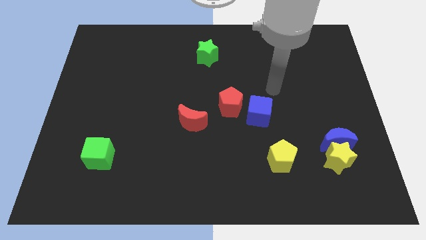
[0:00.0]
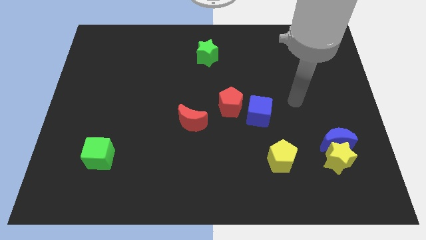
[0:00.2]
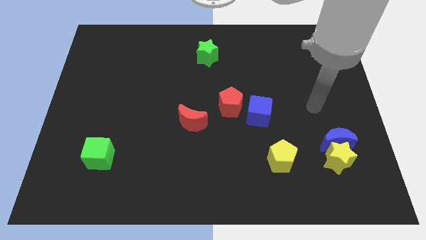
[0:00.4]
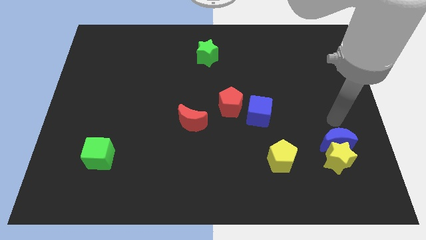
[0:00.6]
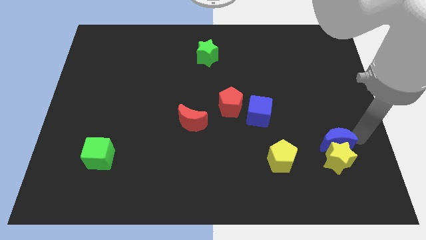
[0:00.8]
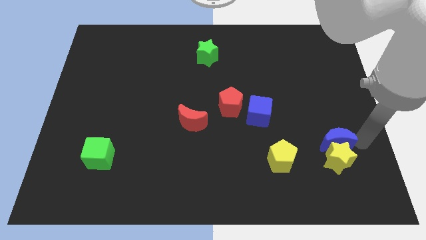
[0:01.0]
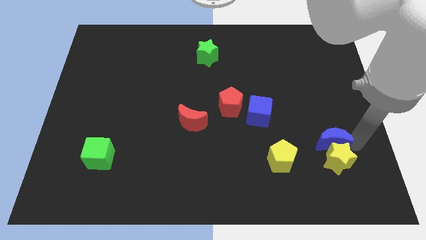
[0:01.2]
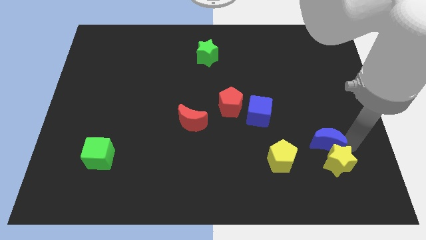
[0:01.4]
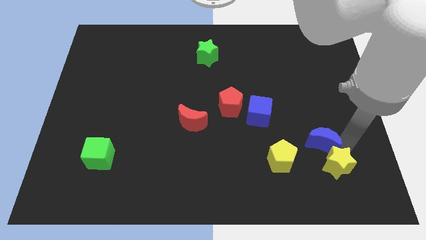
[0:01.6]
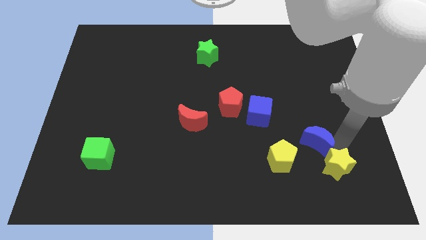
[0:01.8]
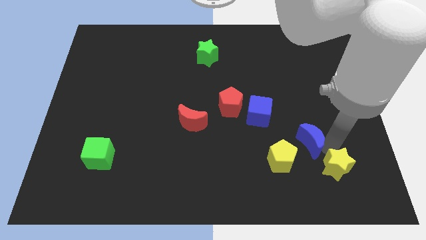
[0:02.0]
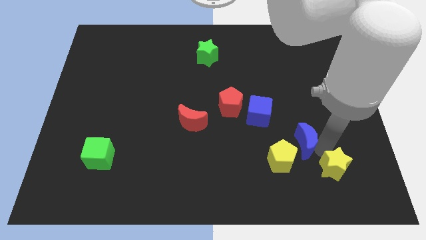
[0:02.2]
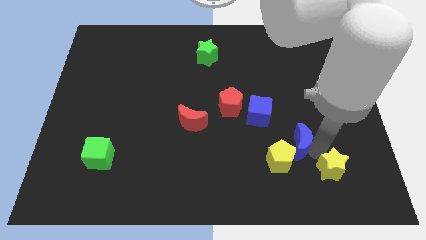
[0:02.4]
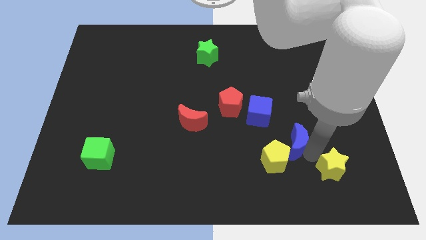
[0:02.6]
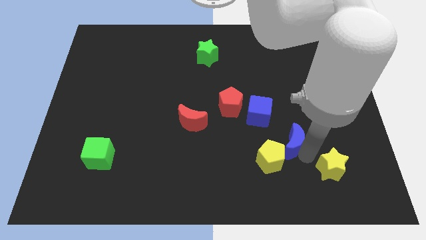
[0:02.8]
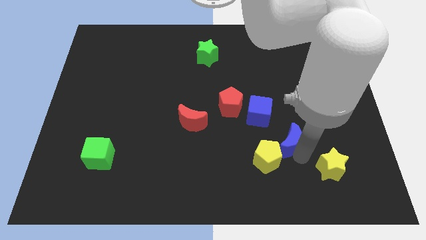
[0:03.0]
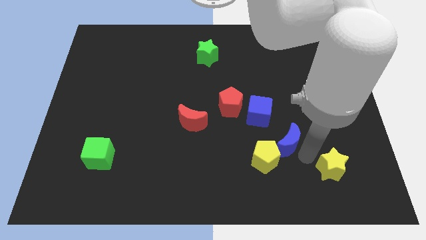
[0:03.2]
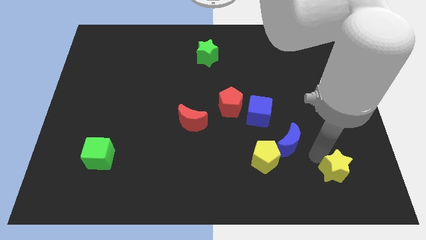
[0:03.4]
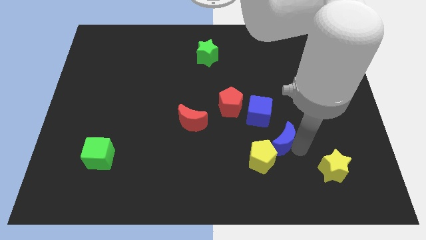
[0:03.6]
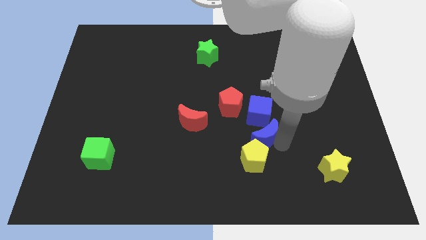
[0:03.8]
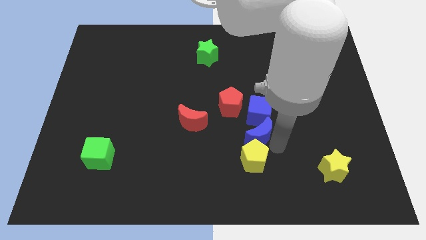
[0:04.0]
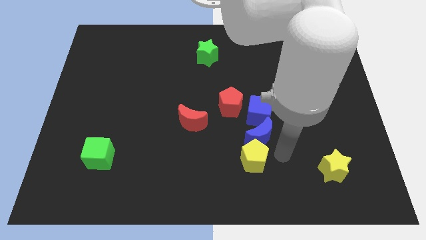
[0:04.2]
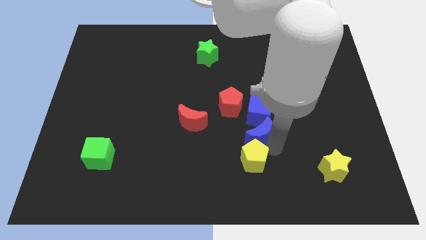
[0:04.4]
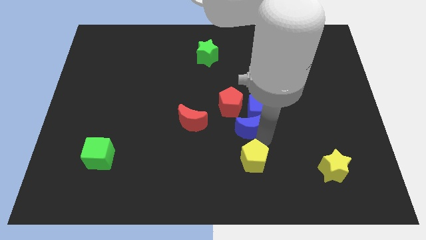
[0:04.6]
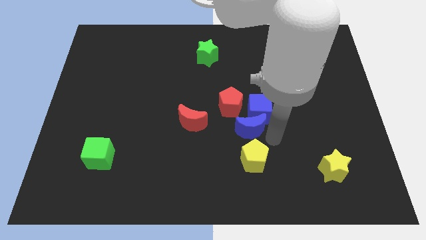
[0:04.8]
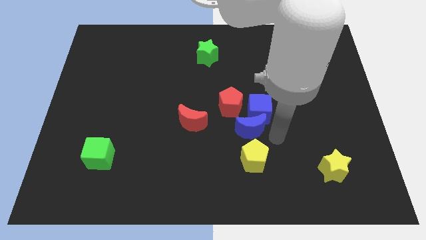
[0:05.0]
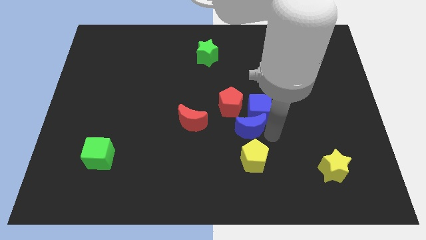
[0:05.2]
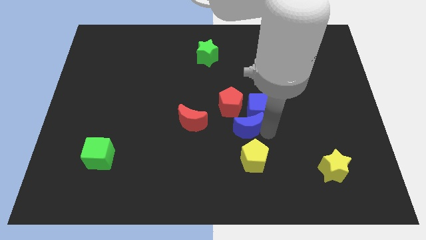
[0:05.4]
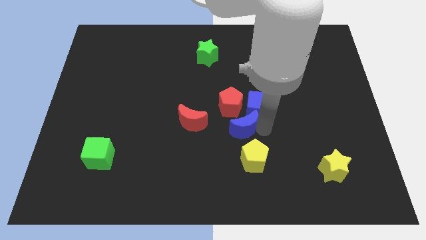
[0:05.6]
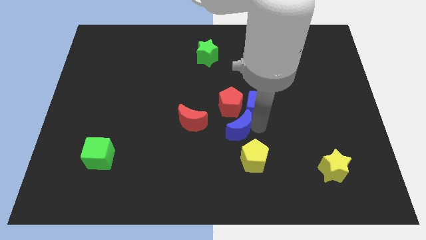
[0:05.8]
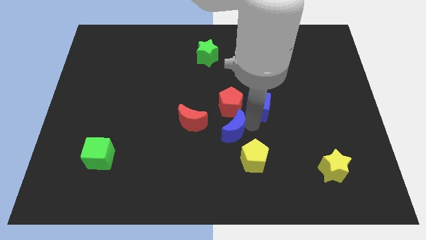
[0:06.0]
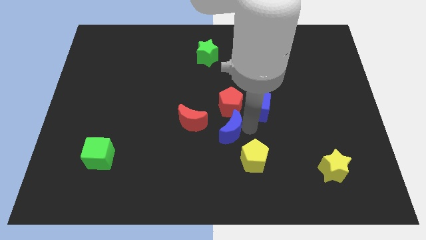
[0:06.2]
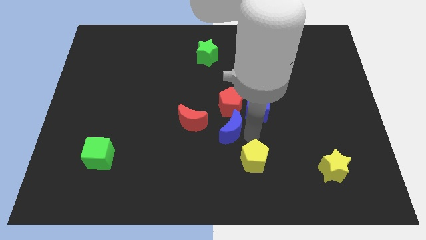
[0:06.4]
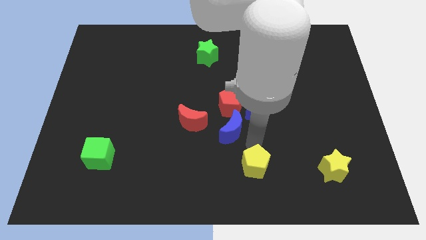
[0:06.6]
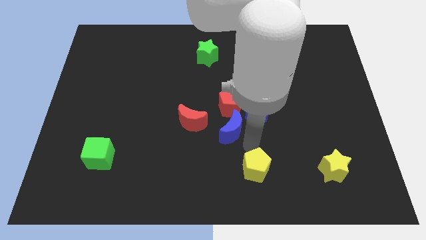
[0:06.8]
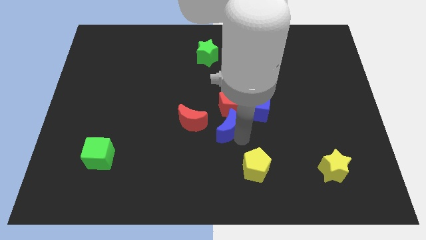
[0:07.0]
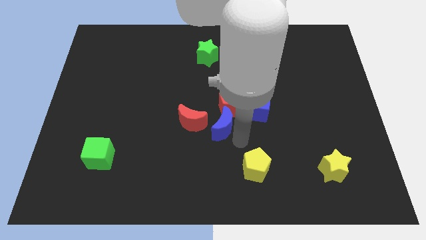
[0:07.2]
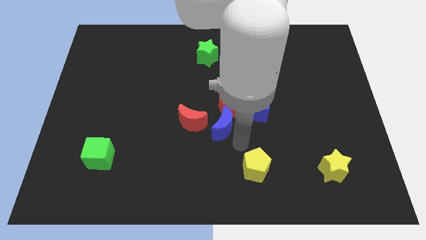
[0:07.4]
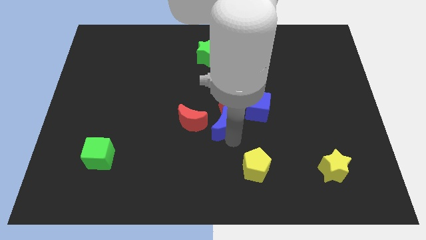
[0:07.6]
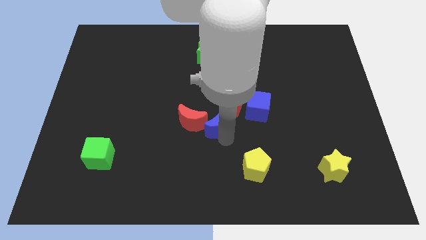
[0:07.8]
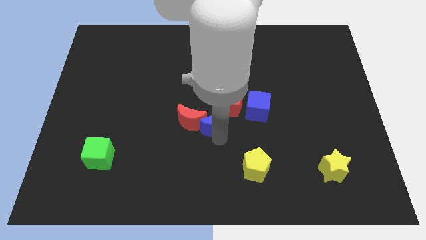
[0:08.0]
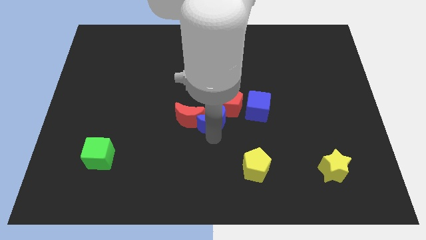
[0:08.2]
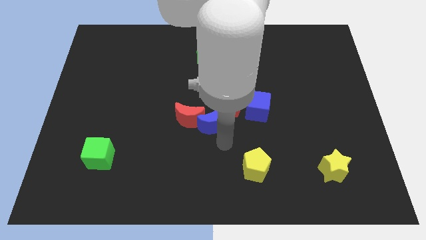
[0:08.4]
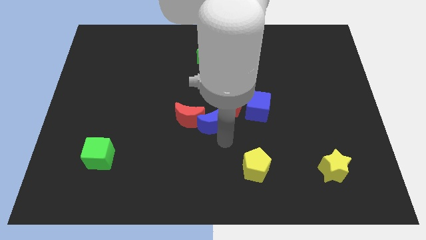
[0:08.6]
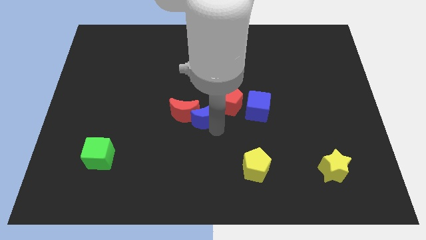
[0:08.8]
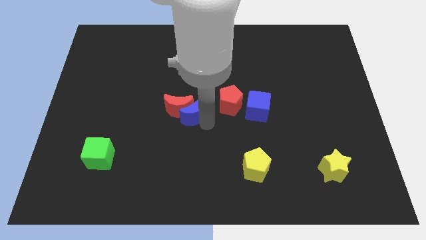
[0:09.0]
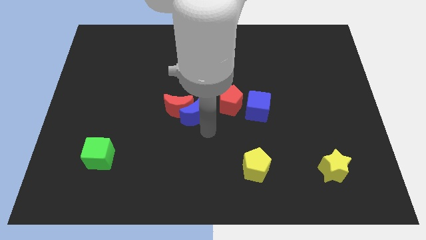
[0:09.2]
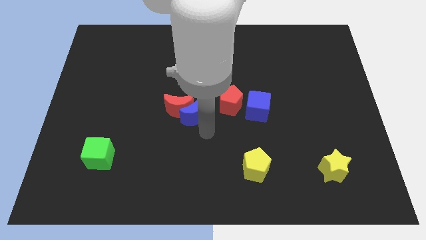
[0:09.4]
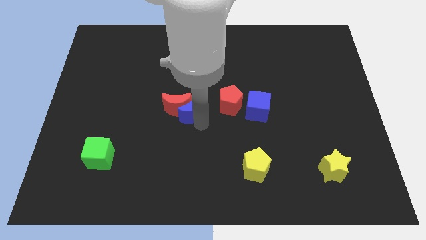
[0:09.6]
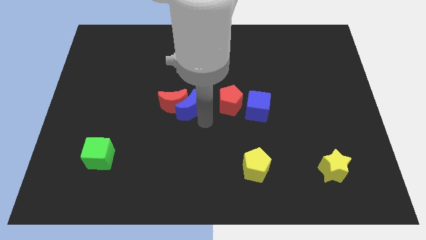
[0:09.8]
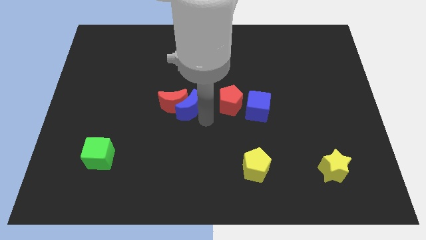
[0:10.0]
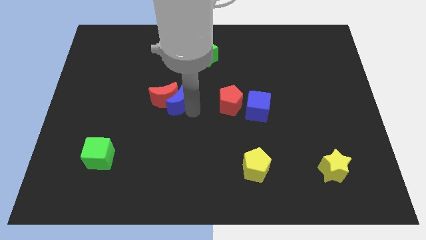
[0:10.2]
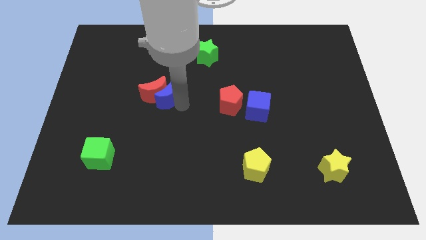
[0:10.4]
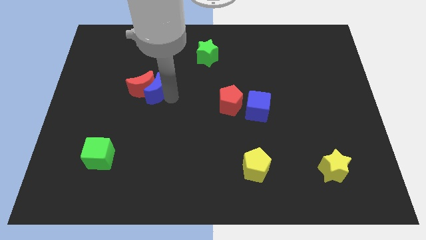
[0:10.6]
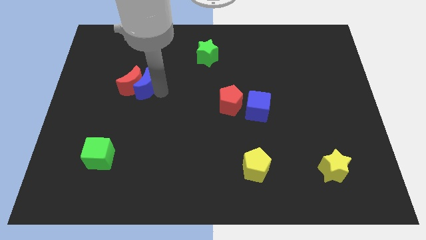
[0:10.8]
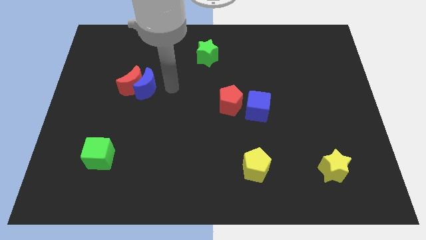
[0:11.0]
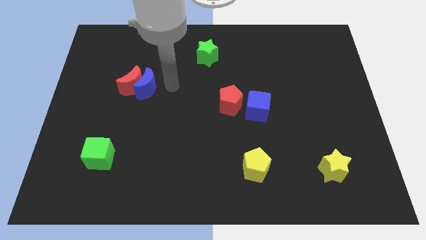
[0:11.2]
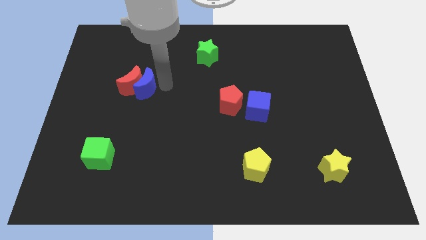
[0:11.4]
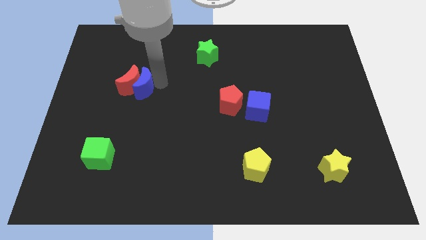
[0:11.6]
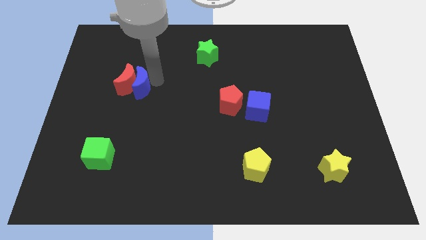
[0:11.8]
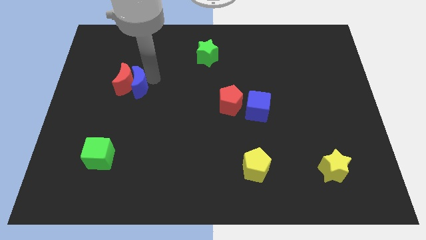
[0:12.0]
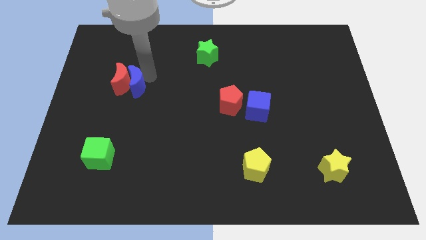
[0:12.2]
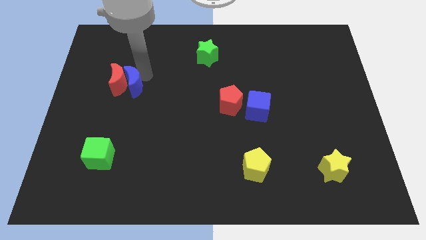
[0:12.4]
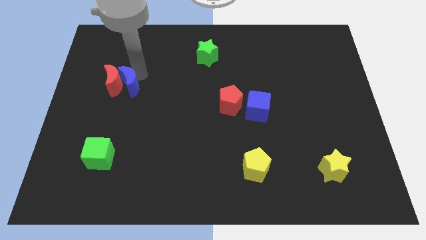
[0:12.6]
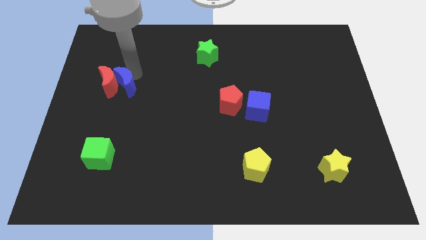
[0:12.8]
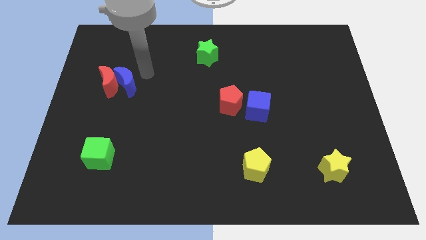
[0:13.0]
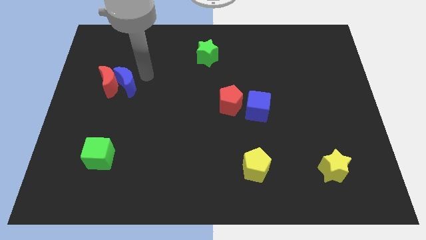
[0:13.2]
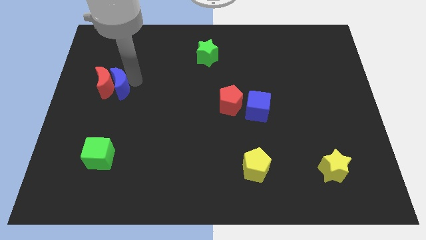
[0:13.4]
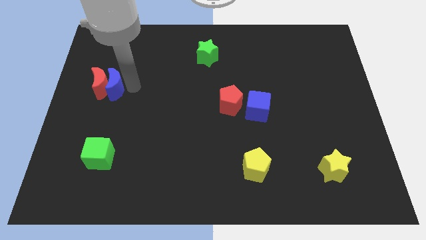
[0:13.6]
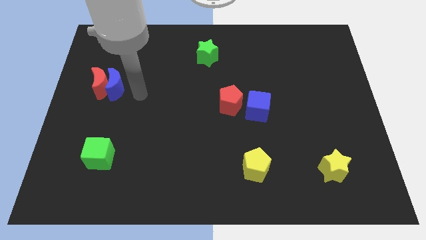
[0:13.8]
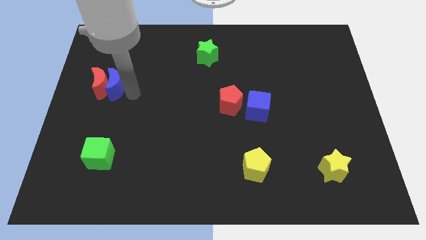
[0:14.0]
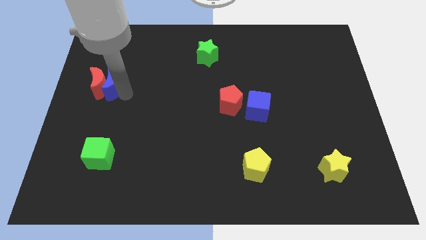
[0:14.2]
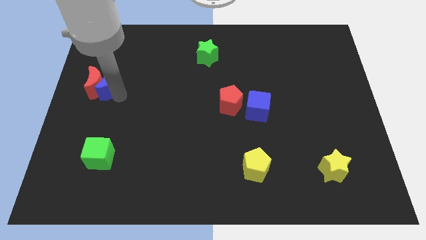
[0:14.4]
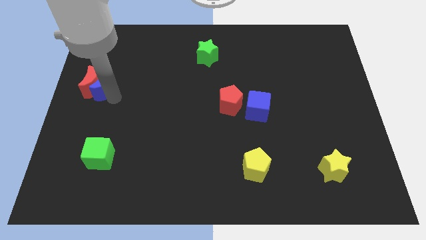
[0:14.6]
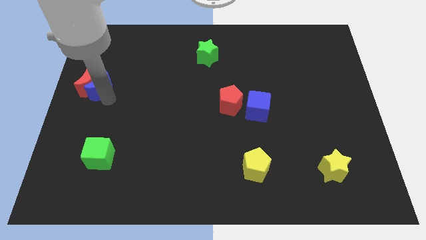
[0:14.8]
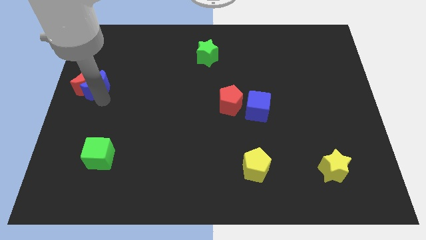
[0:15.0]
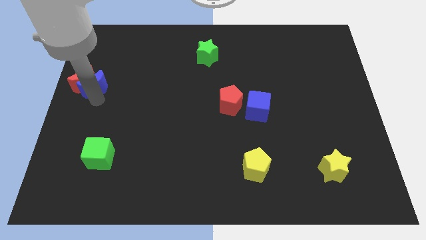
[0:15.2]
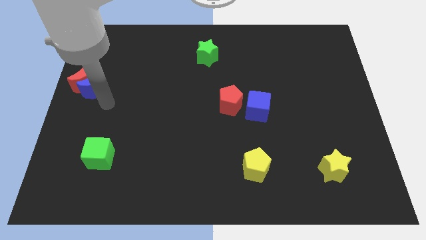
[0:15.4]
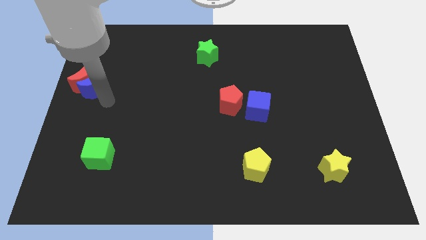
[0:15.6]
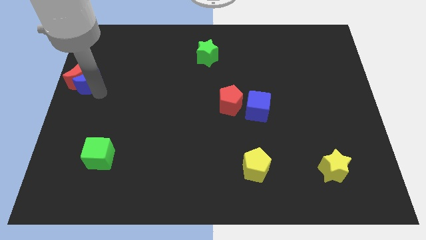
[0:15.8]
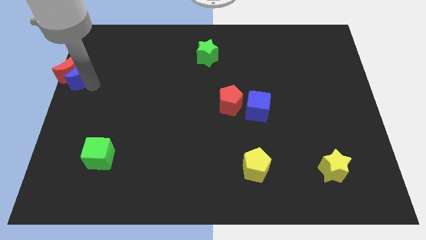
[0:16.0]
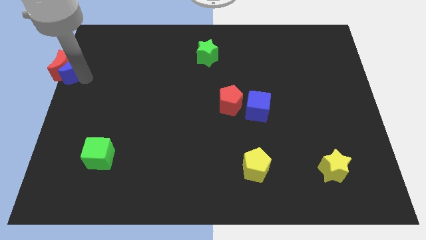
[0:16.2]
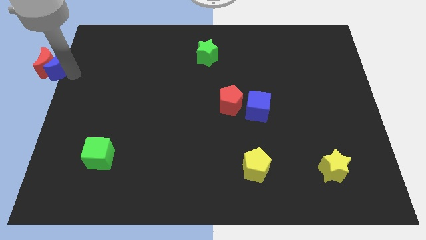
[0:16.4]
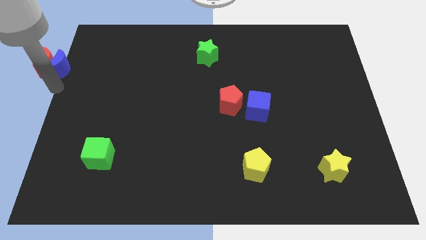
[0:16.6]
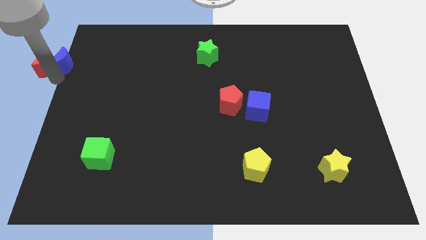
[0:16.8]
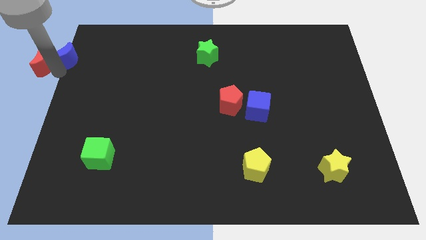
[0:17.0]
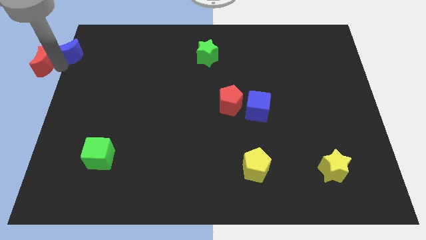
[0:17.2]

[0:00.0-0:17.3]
slide the blue moon to the top left of the board
